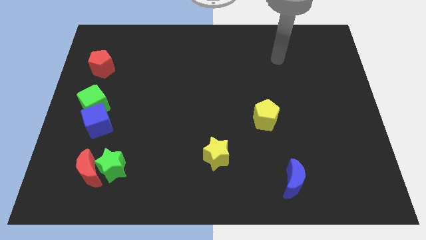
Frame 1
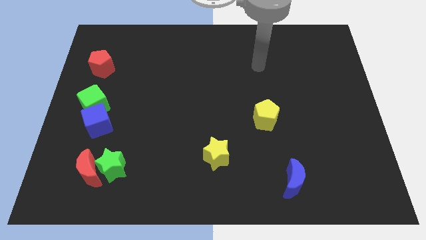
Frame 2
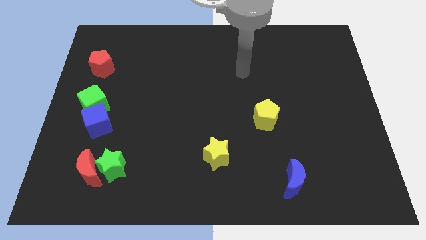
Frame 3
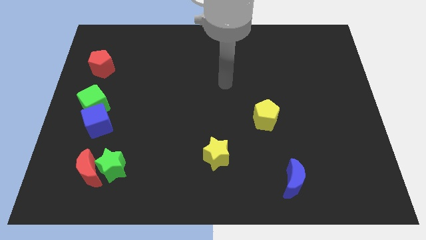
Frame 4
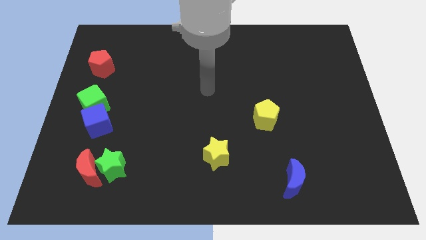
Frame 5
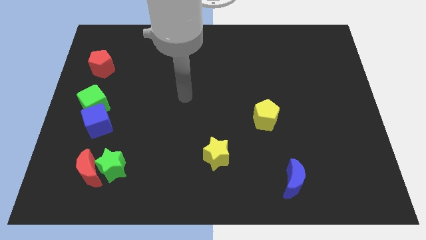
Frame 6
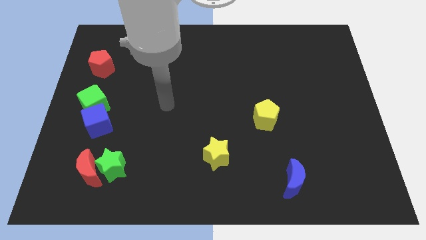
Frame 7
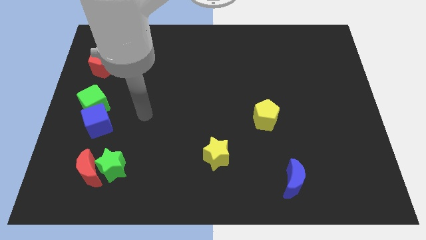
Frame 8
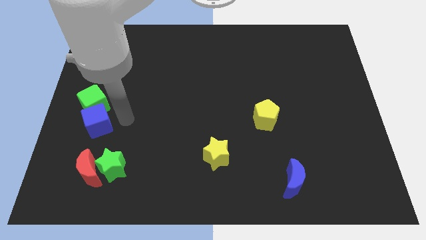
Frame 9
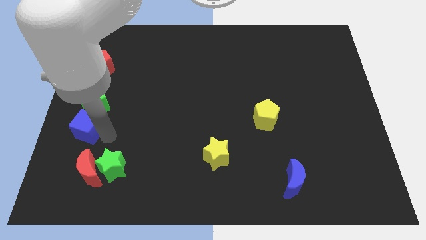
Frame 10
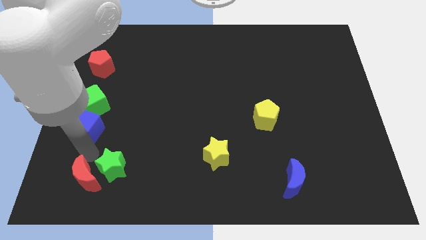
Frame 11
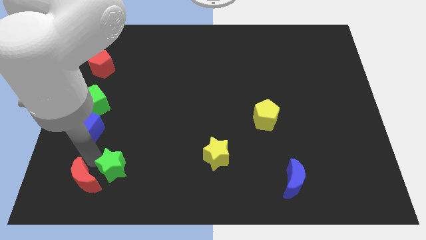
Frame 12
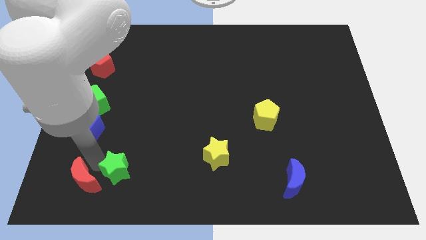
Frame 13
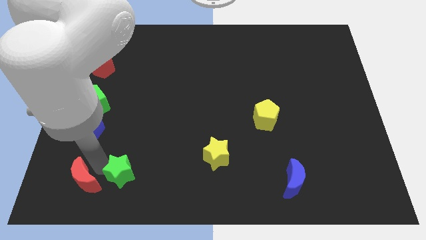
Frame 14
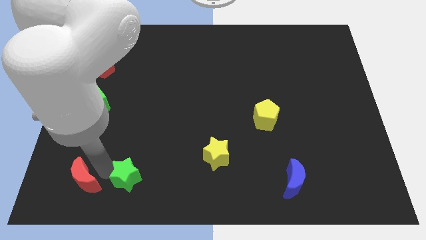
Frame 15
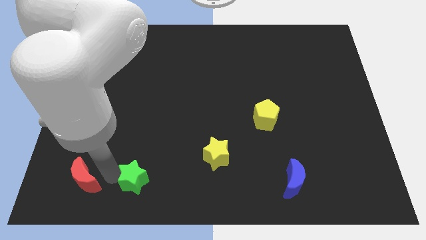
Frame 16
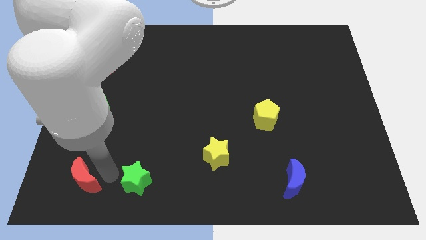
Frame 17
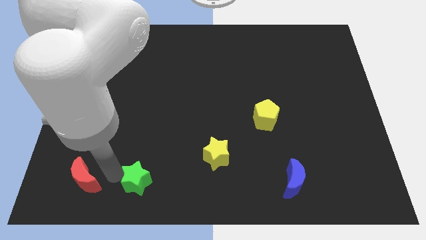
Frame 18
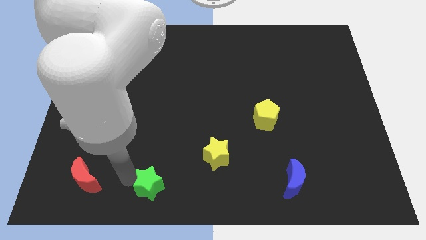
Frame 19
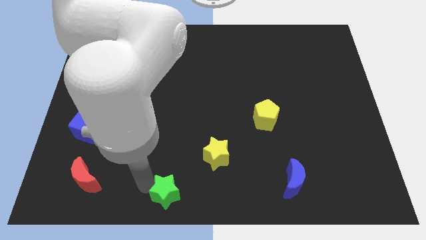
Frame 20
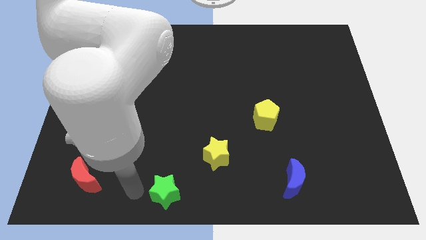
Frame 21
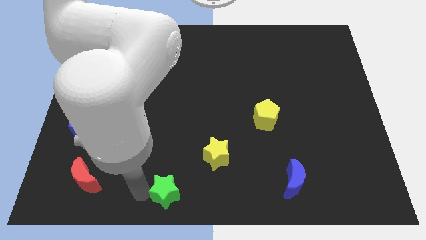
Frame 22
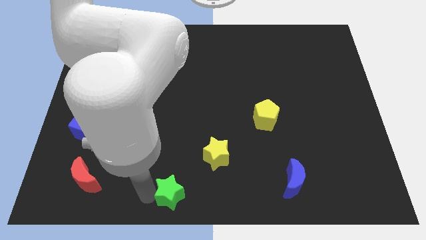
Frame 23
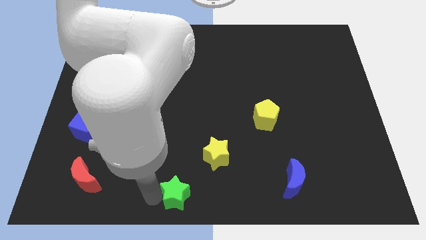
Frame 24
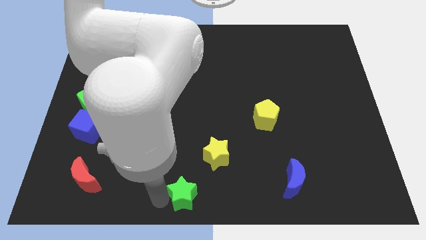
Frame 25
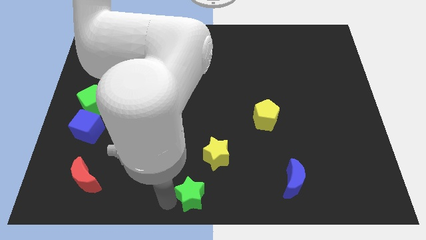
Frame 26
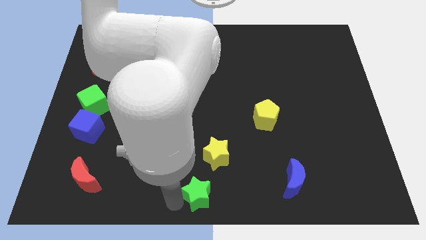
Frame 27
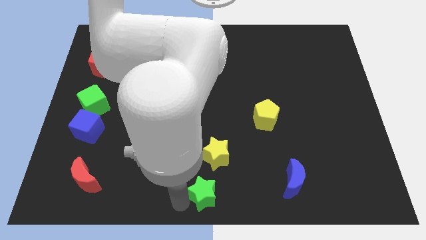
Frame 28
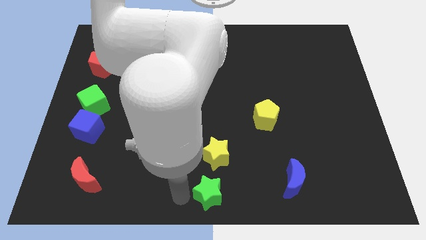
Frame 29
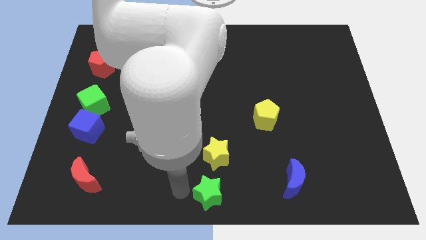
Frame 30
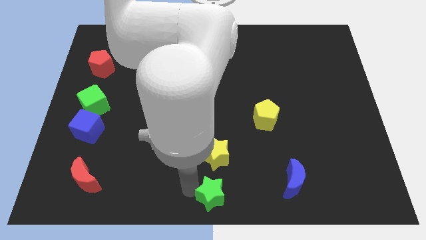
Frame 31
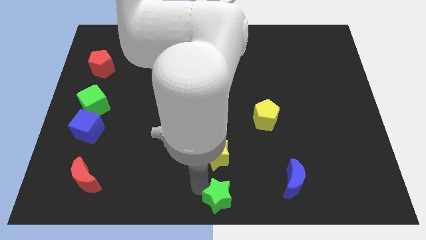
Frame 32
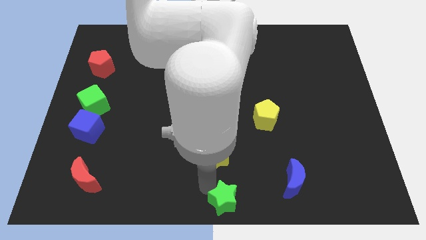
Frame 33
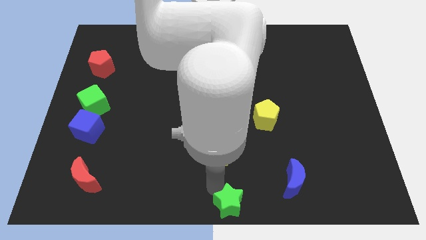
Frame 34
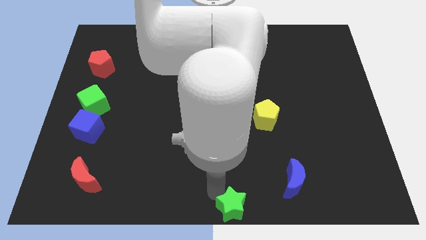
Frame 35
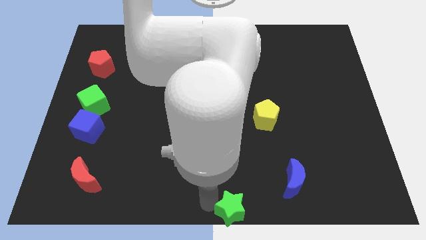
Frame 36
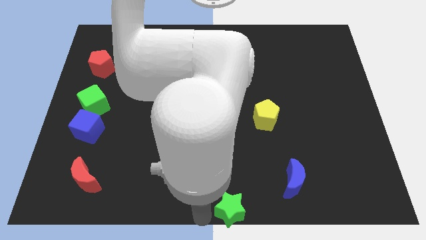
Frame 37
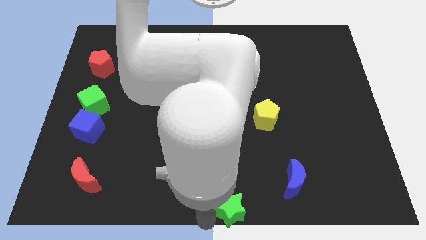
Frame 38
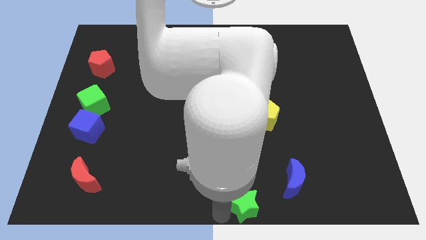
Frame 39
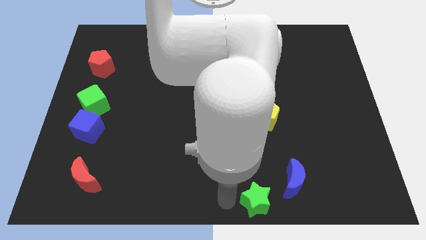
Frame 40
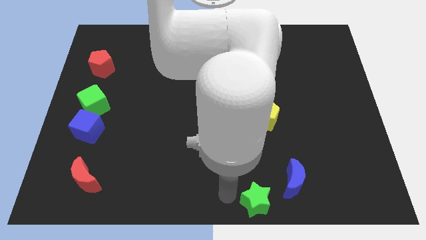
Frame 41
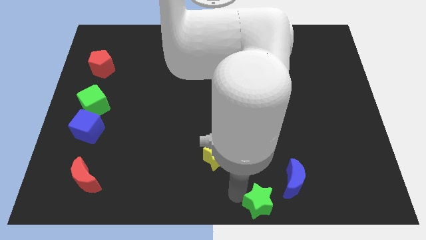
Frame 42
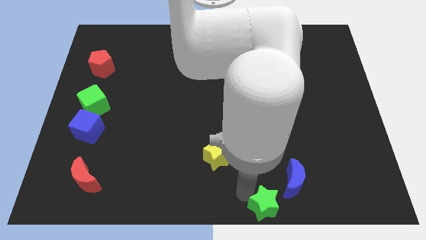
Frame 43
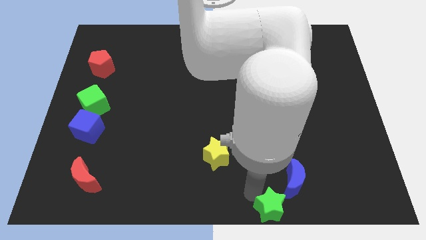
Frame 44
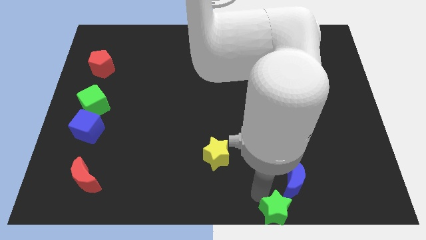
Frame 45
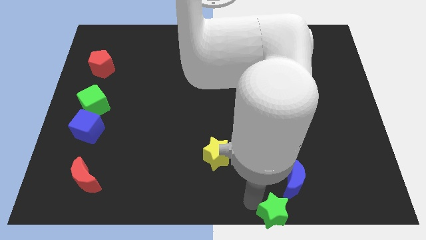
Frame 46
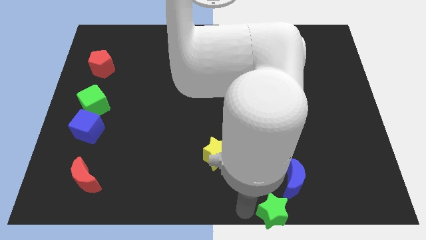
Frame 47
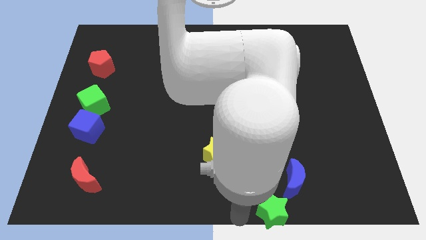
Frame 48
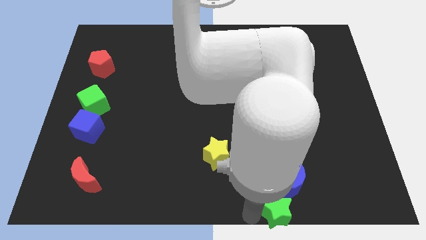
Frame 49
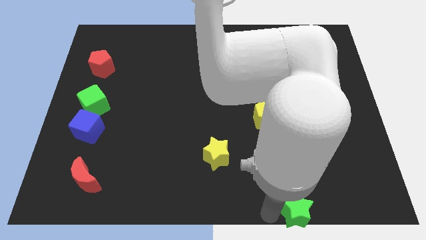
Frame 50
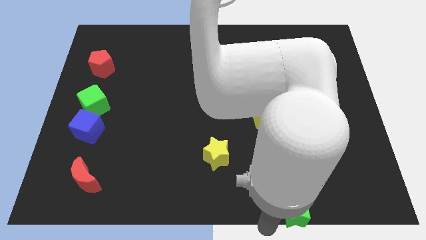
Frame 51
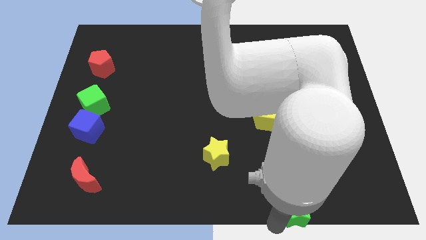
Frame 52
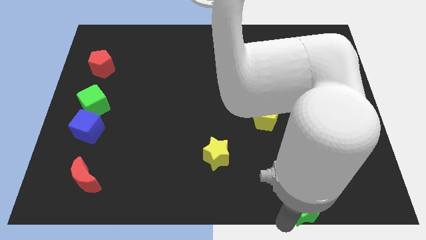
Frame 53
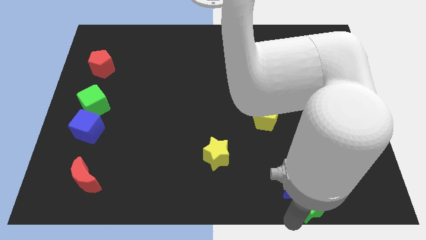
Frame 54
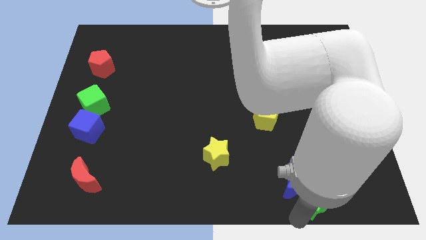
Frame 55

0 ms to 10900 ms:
slide the green star just right of the blue moon

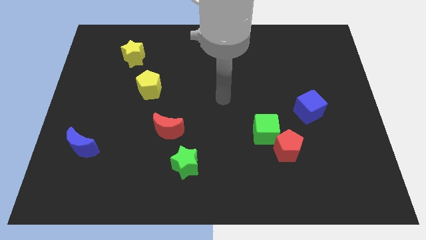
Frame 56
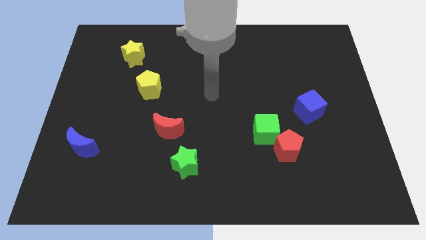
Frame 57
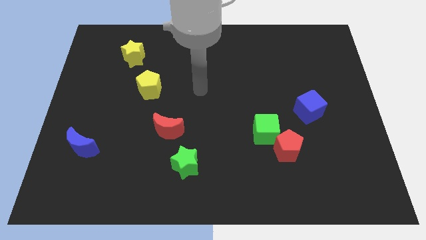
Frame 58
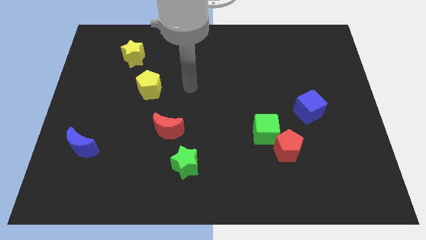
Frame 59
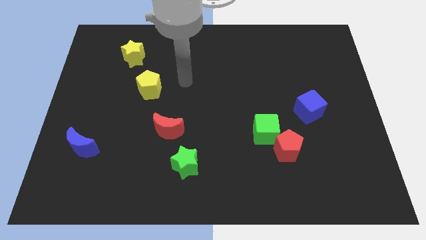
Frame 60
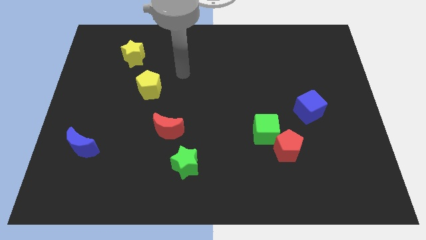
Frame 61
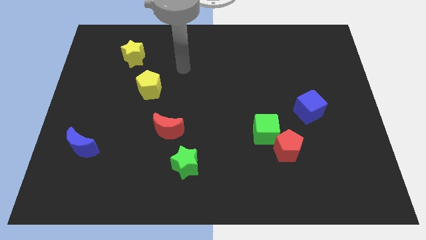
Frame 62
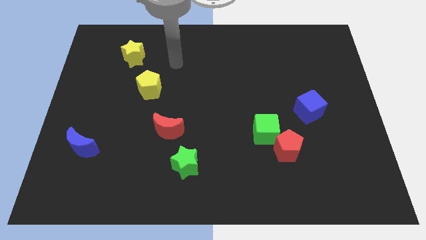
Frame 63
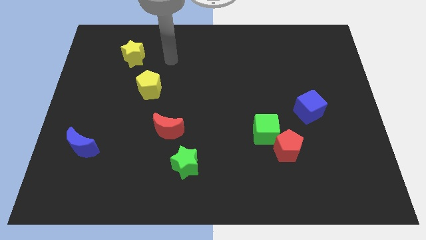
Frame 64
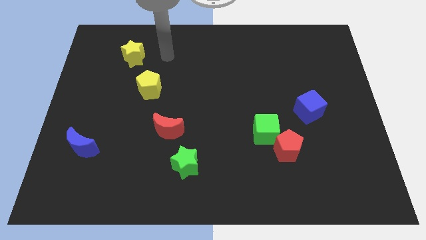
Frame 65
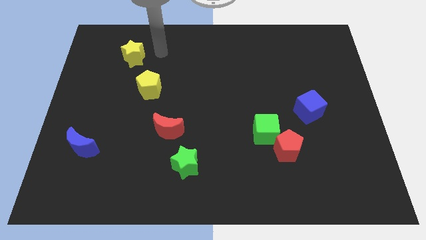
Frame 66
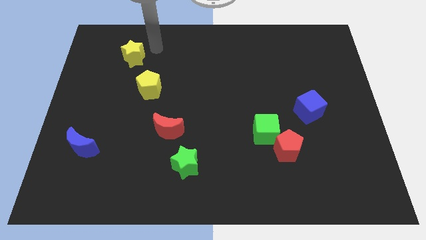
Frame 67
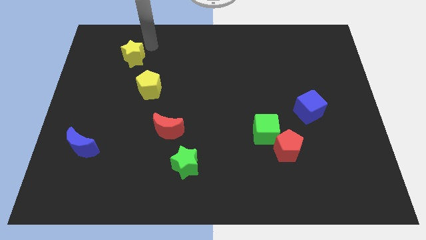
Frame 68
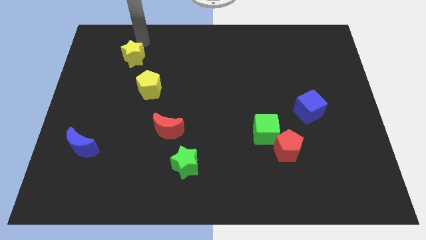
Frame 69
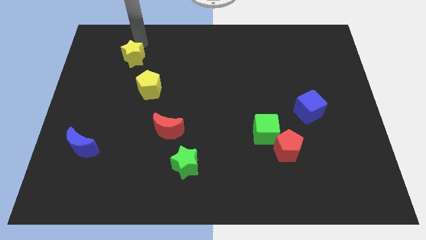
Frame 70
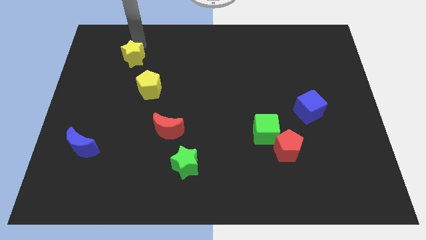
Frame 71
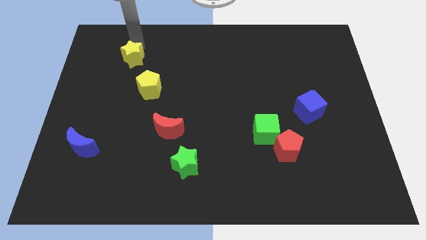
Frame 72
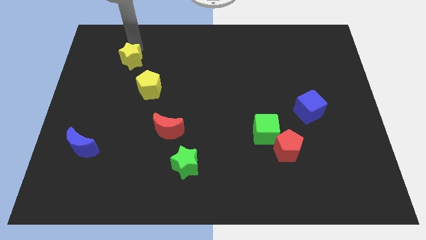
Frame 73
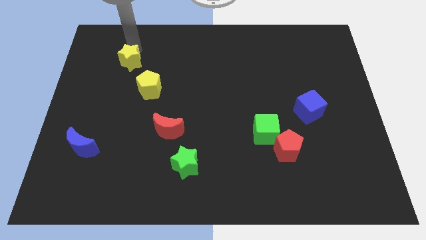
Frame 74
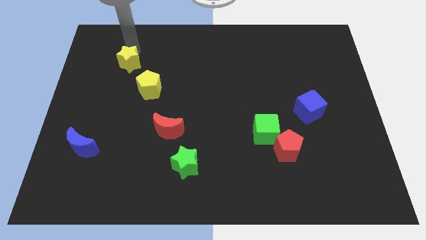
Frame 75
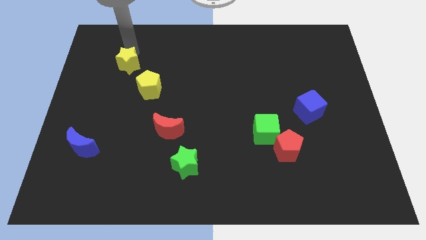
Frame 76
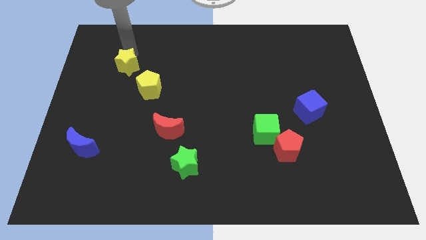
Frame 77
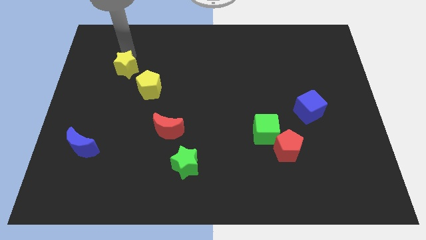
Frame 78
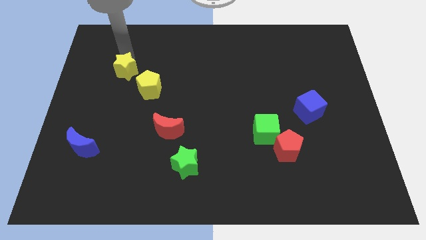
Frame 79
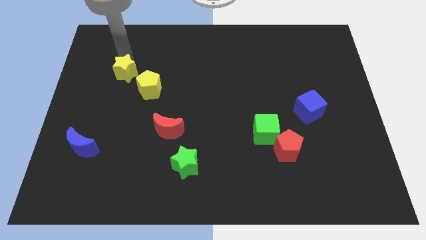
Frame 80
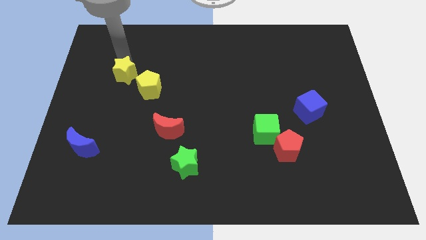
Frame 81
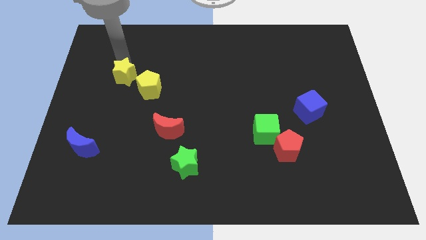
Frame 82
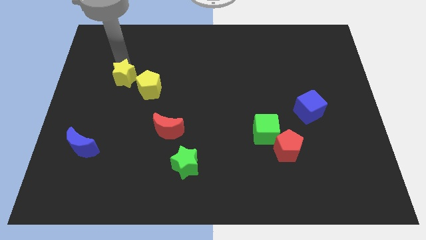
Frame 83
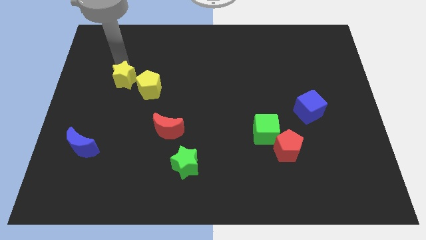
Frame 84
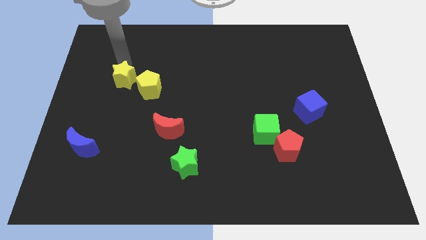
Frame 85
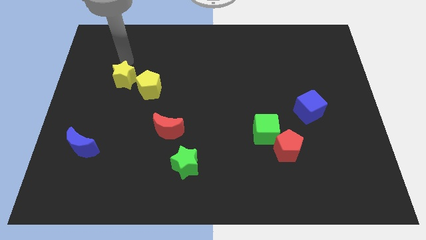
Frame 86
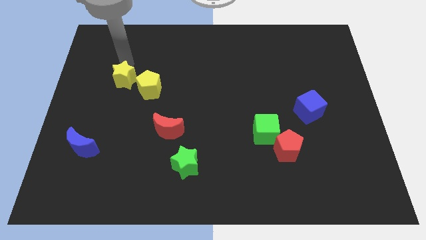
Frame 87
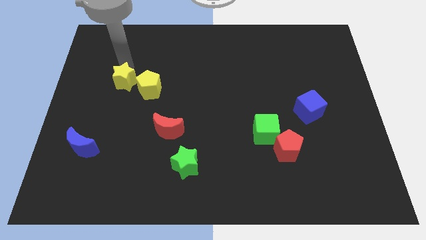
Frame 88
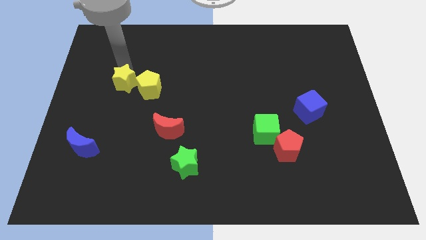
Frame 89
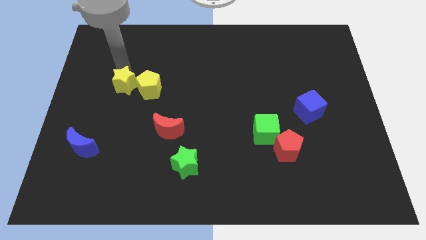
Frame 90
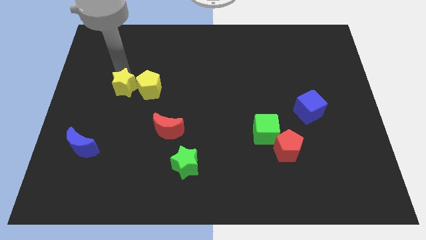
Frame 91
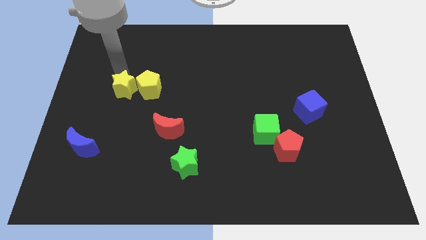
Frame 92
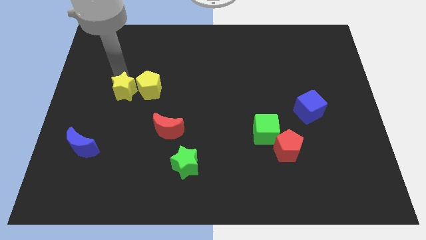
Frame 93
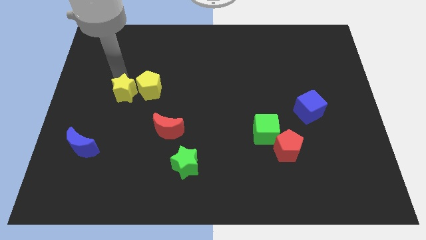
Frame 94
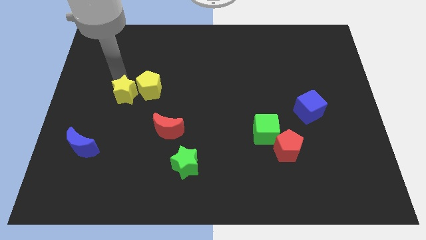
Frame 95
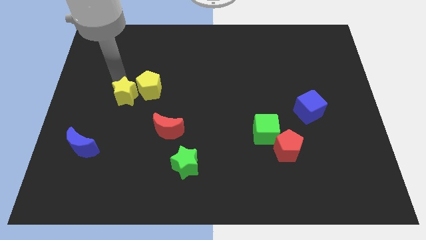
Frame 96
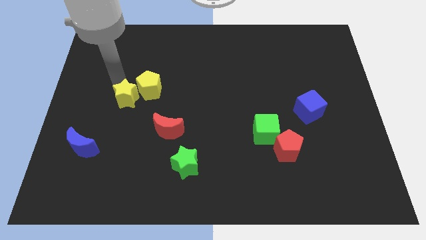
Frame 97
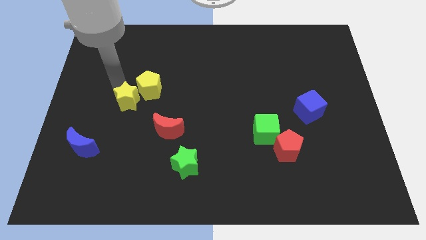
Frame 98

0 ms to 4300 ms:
push the yellow star below the yellow pentagon
